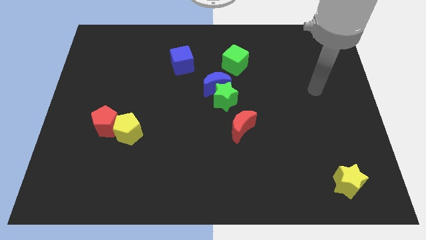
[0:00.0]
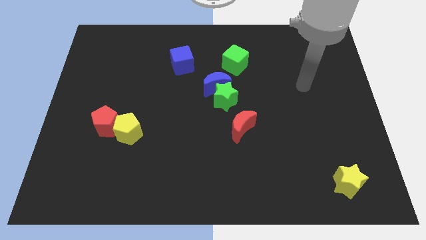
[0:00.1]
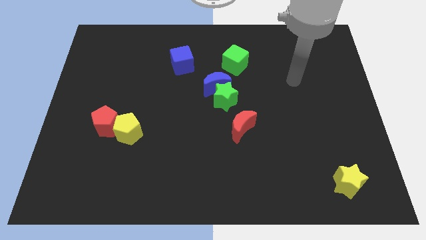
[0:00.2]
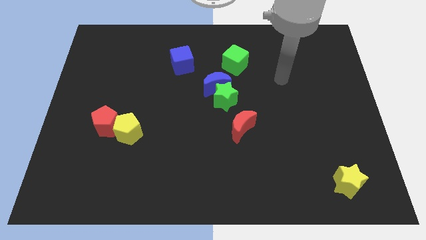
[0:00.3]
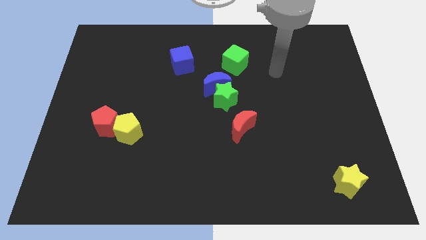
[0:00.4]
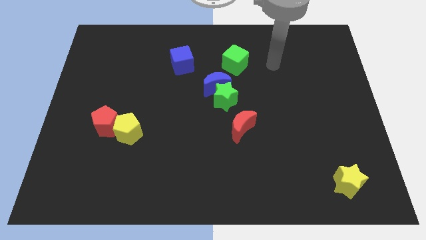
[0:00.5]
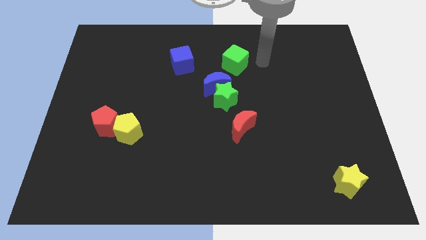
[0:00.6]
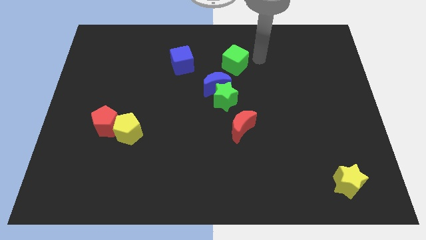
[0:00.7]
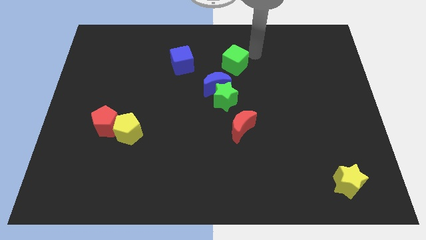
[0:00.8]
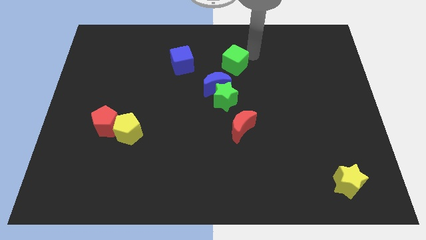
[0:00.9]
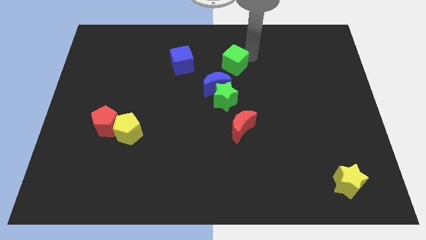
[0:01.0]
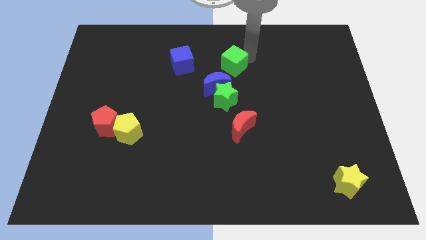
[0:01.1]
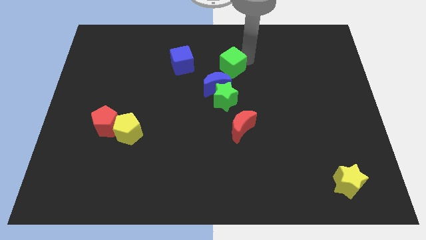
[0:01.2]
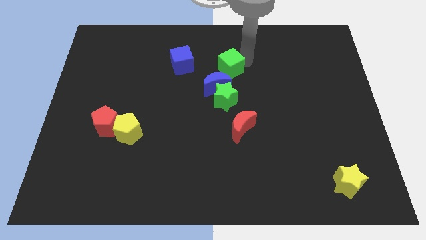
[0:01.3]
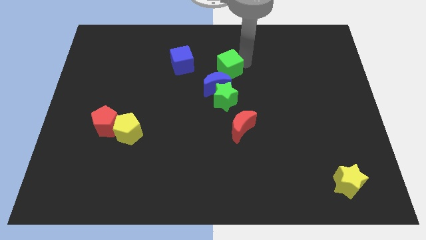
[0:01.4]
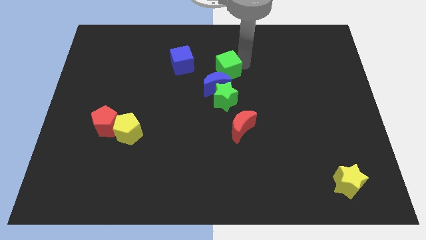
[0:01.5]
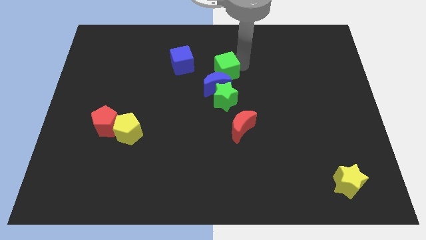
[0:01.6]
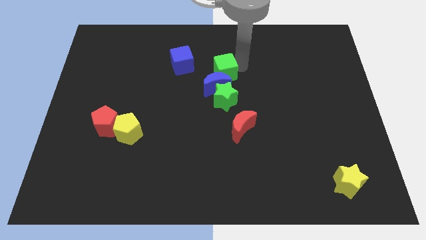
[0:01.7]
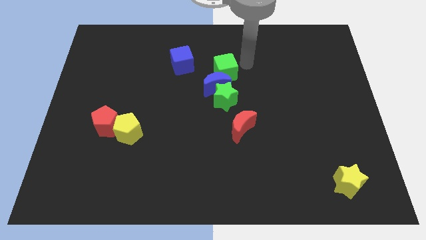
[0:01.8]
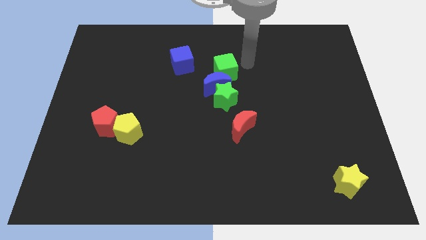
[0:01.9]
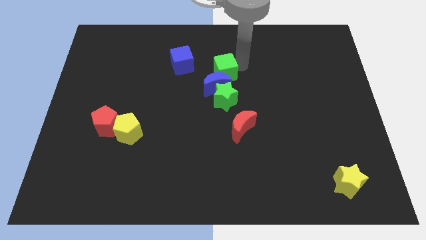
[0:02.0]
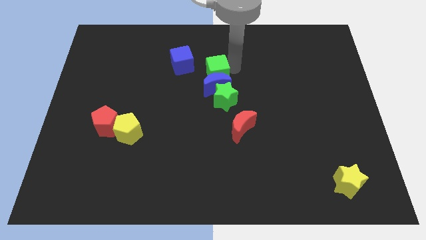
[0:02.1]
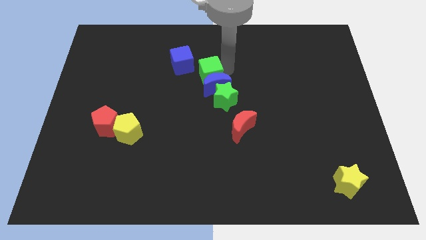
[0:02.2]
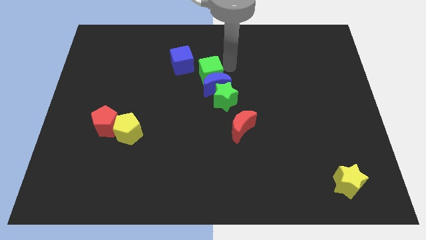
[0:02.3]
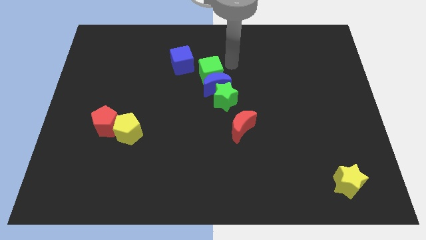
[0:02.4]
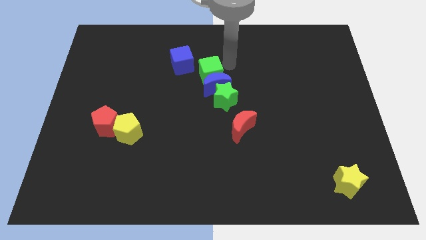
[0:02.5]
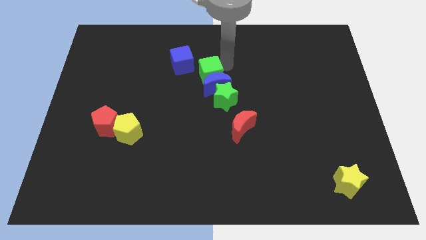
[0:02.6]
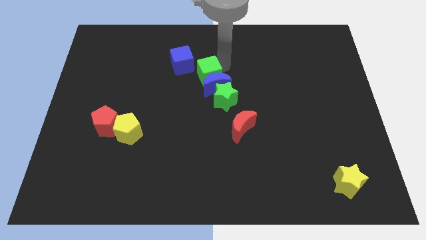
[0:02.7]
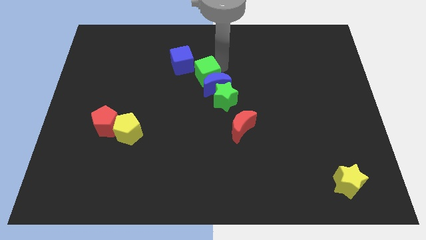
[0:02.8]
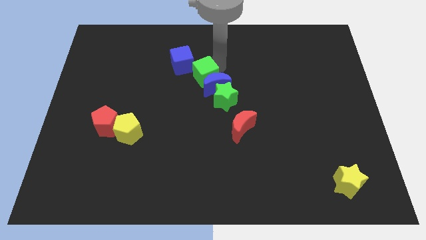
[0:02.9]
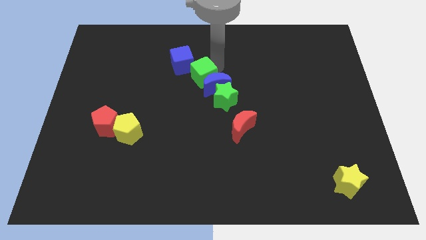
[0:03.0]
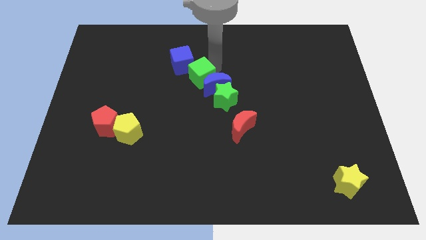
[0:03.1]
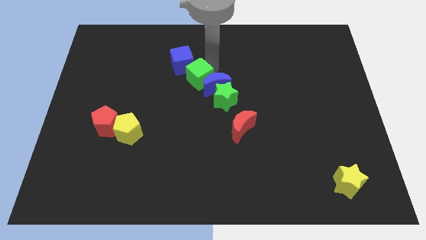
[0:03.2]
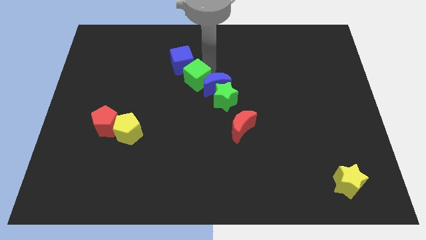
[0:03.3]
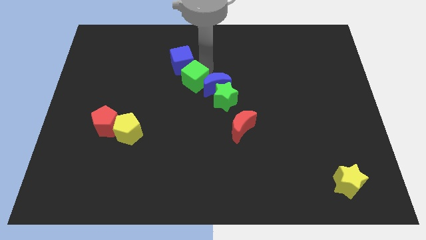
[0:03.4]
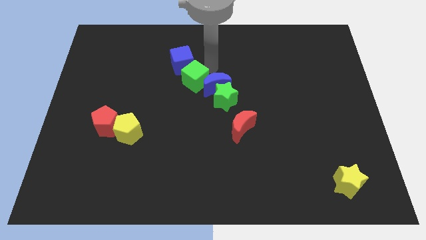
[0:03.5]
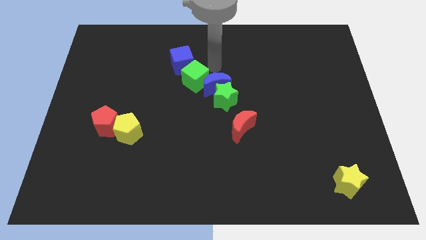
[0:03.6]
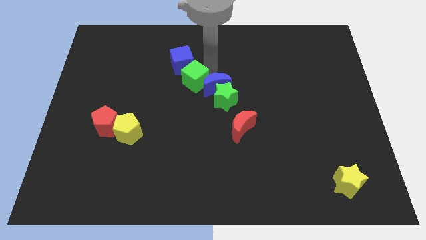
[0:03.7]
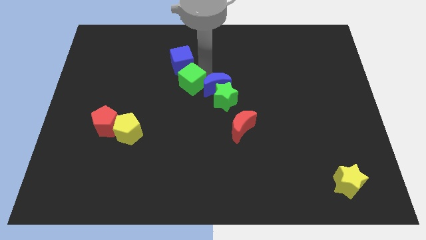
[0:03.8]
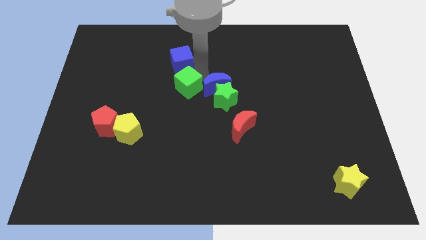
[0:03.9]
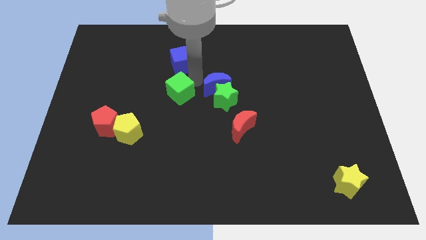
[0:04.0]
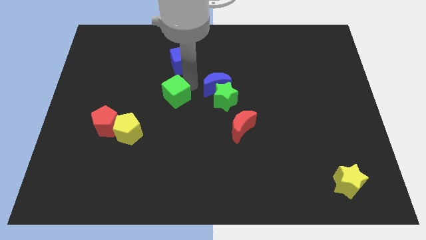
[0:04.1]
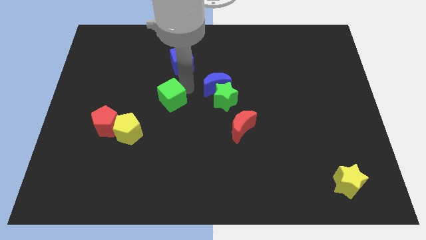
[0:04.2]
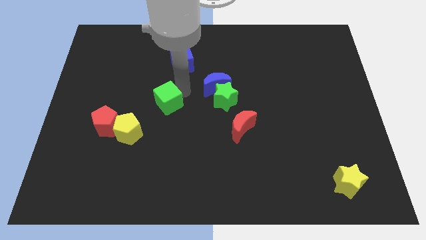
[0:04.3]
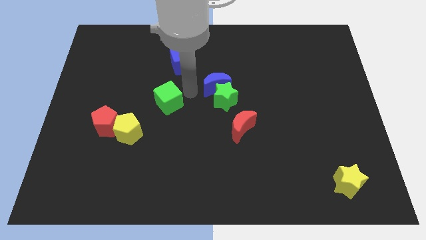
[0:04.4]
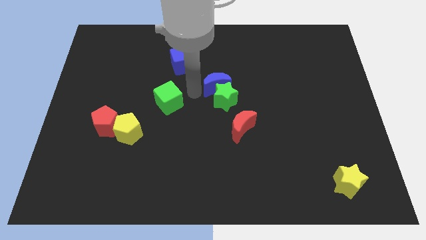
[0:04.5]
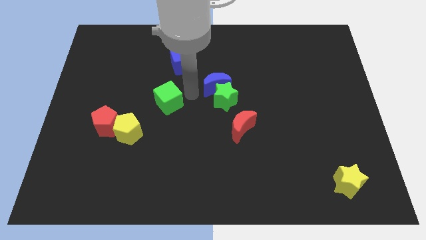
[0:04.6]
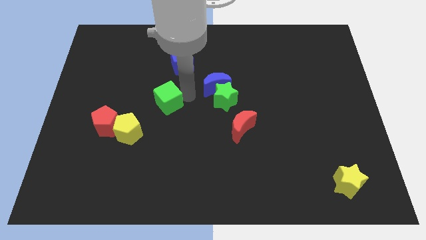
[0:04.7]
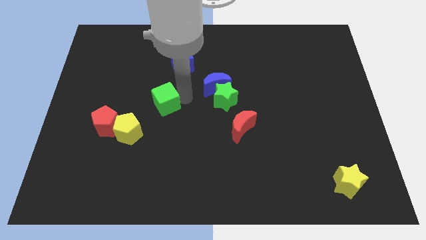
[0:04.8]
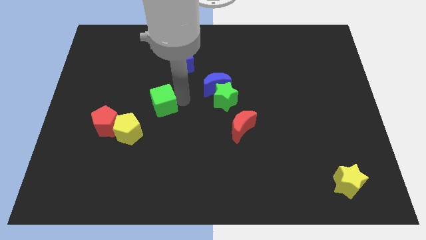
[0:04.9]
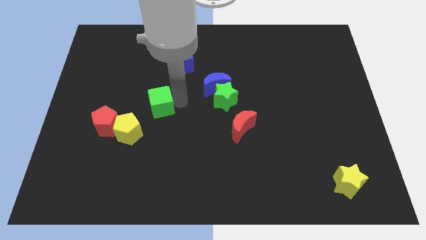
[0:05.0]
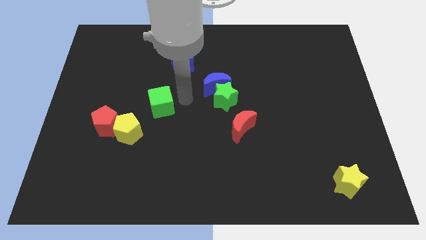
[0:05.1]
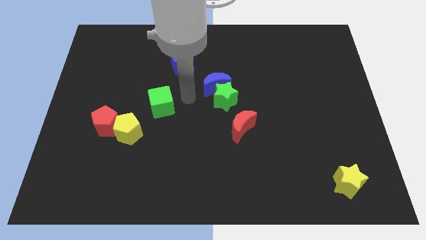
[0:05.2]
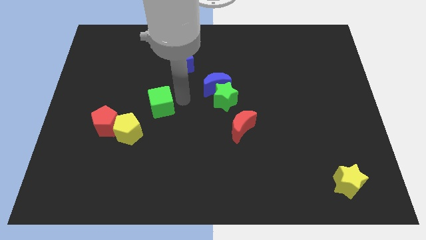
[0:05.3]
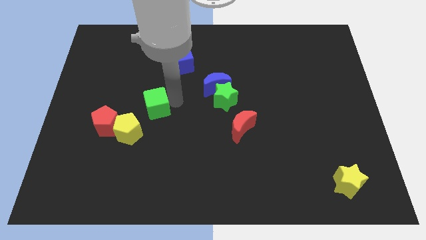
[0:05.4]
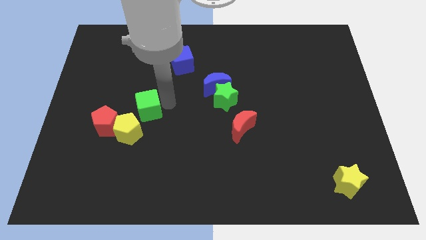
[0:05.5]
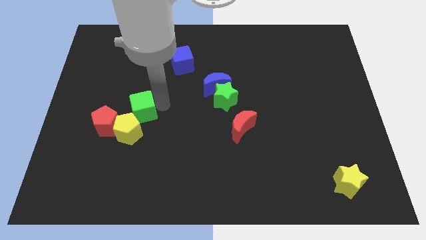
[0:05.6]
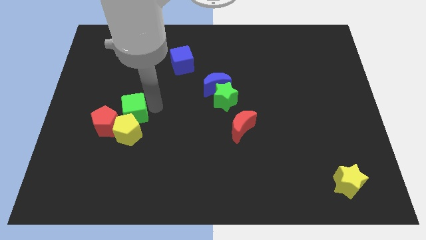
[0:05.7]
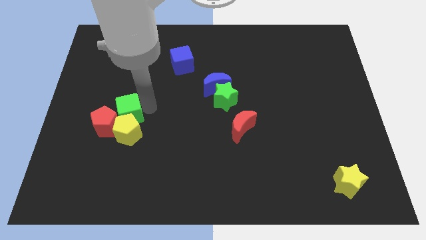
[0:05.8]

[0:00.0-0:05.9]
put the green cube close to the red pentagon

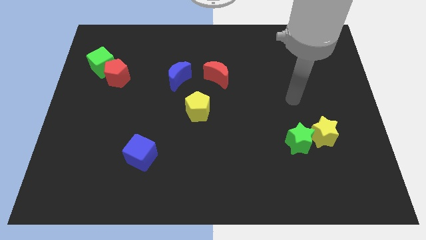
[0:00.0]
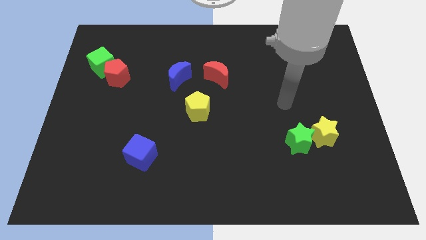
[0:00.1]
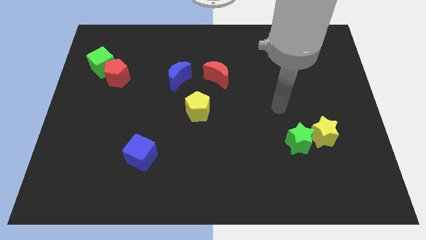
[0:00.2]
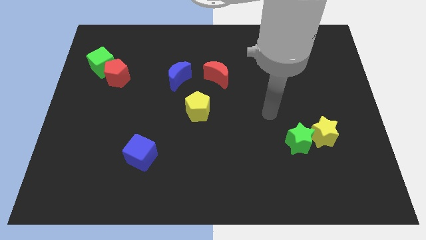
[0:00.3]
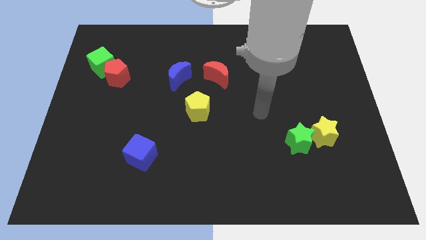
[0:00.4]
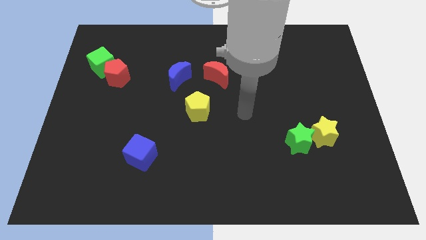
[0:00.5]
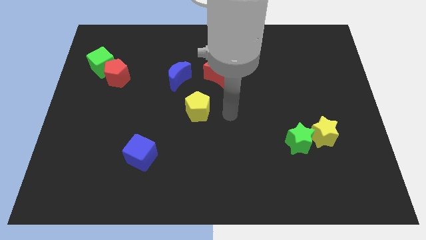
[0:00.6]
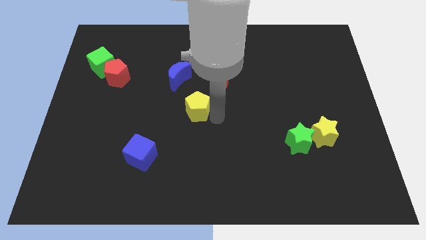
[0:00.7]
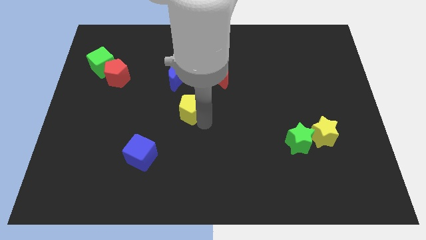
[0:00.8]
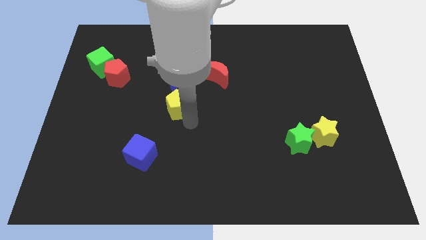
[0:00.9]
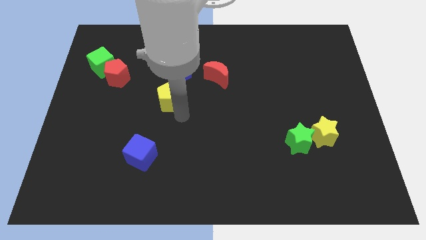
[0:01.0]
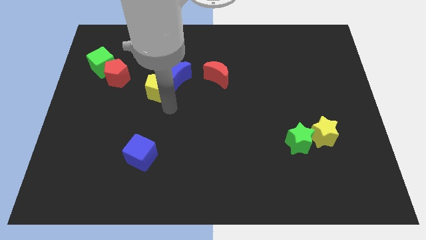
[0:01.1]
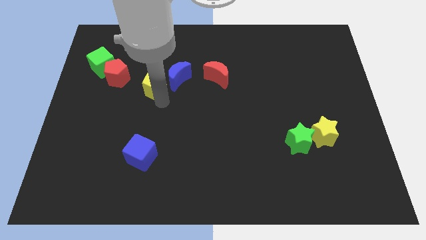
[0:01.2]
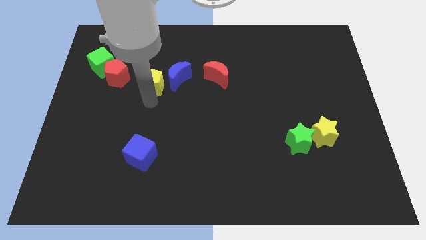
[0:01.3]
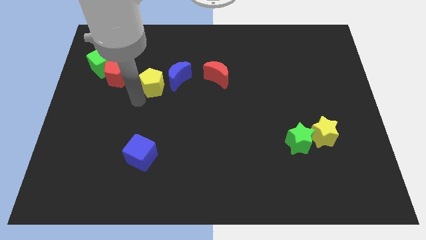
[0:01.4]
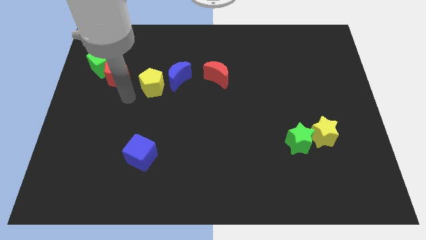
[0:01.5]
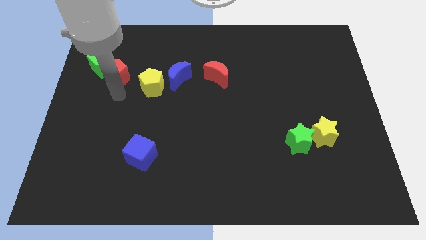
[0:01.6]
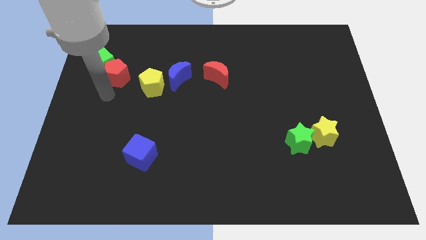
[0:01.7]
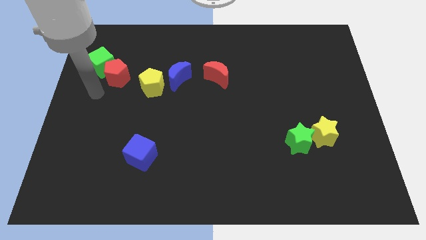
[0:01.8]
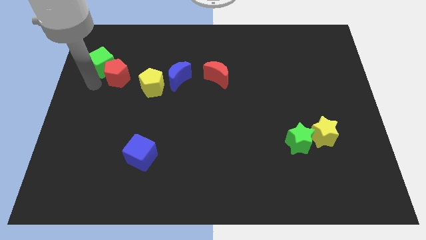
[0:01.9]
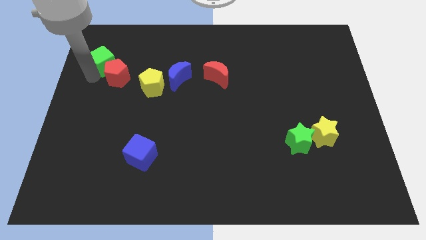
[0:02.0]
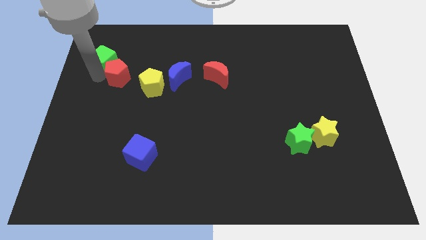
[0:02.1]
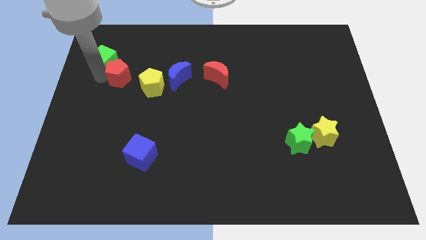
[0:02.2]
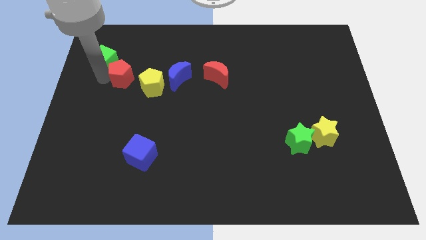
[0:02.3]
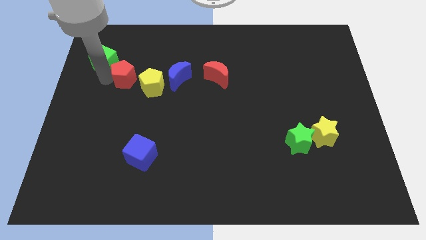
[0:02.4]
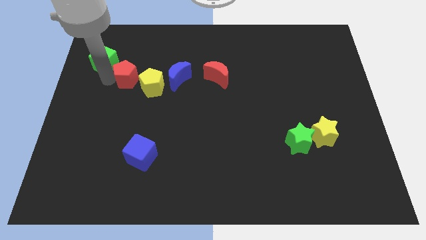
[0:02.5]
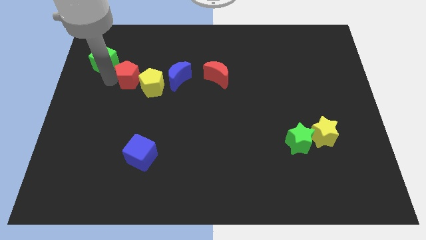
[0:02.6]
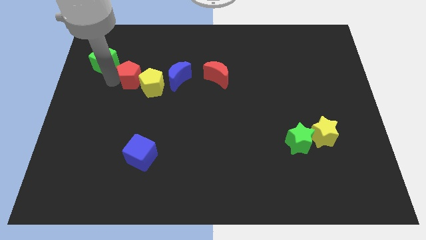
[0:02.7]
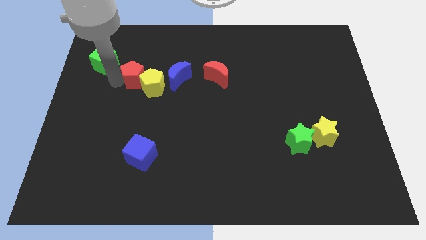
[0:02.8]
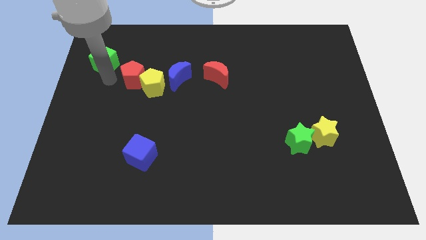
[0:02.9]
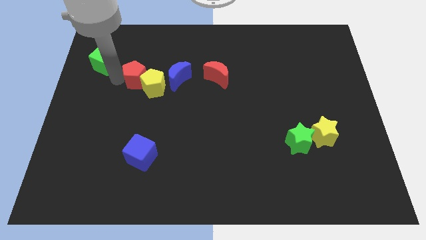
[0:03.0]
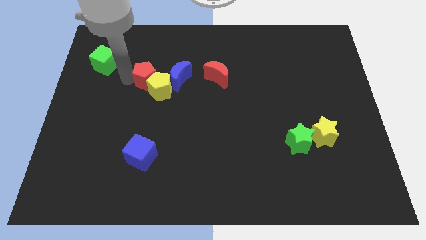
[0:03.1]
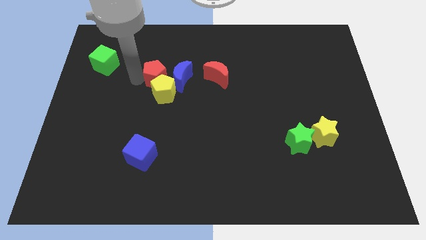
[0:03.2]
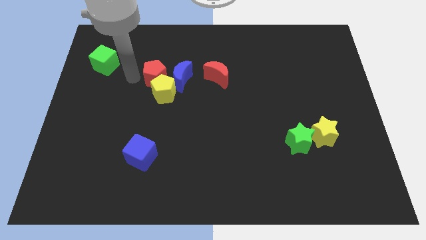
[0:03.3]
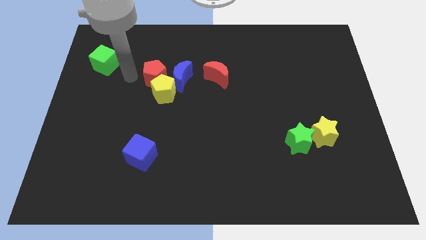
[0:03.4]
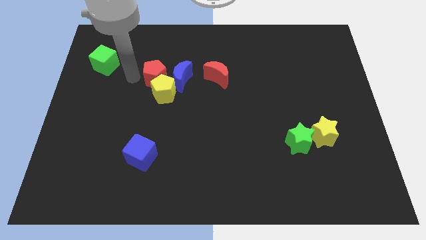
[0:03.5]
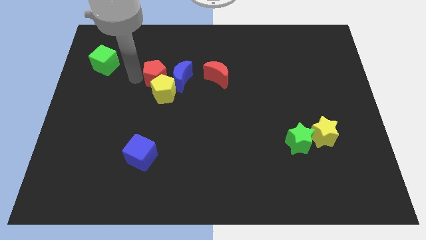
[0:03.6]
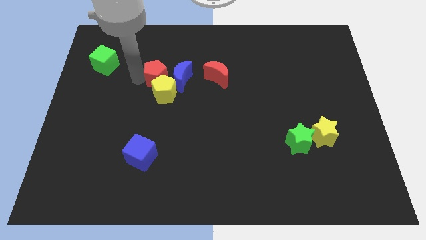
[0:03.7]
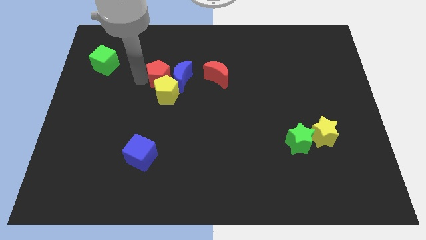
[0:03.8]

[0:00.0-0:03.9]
put the red pentagon next to the blue moon
